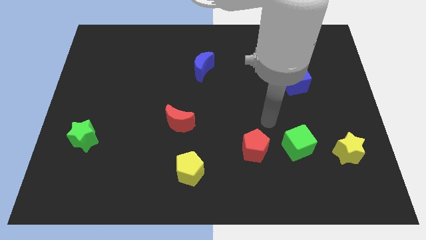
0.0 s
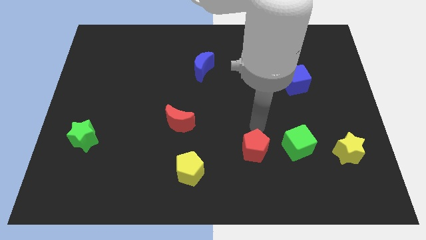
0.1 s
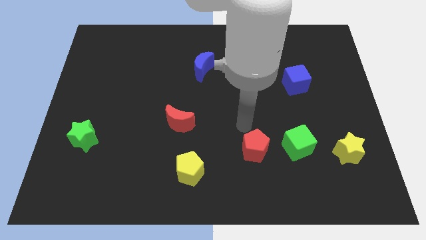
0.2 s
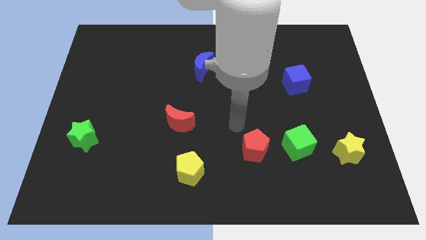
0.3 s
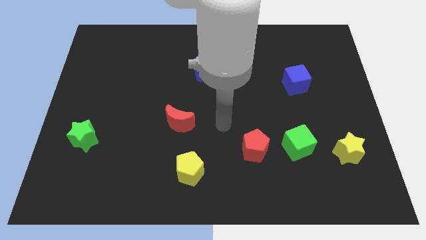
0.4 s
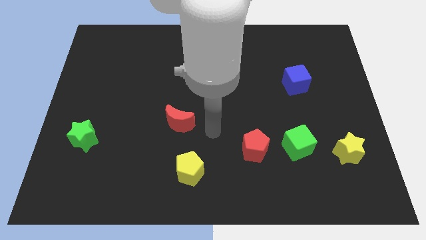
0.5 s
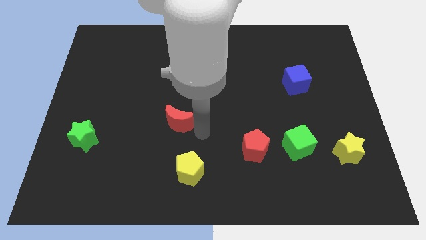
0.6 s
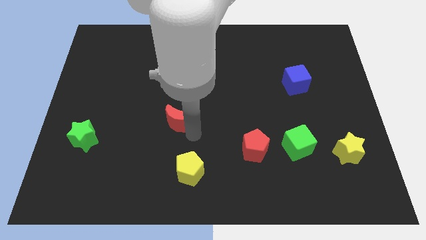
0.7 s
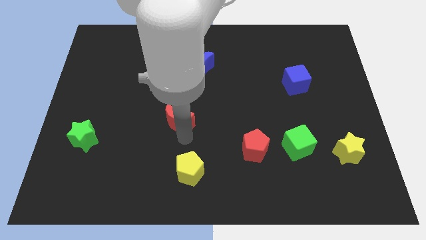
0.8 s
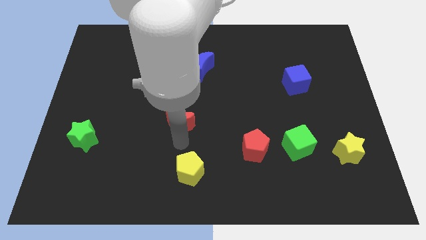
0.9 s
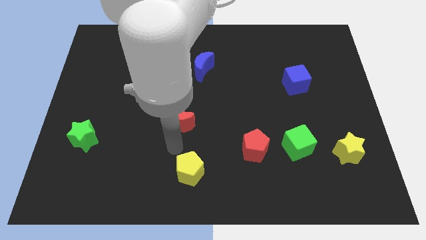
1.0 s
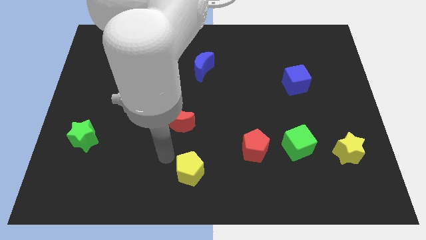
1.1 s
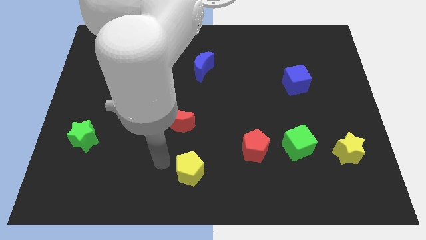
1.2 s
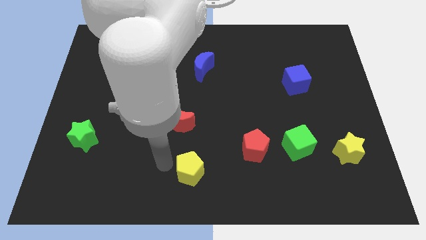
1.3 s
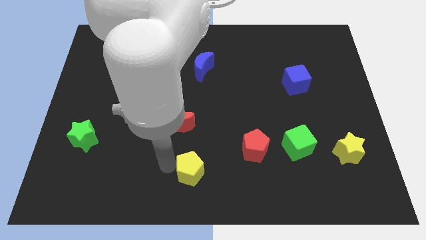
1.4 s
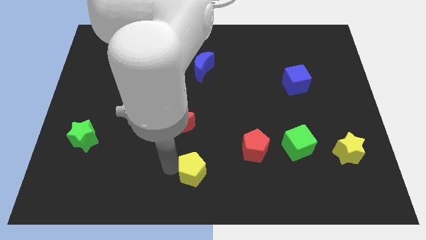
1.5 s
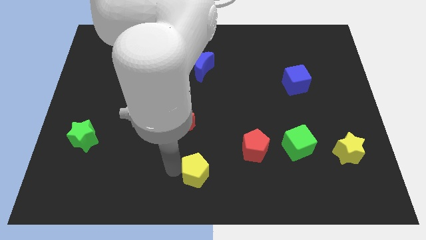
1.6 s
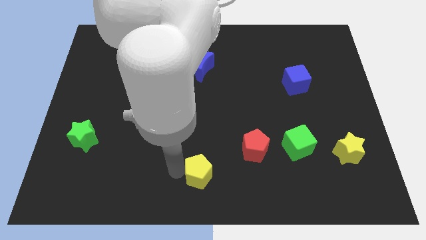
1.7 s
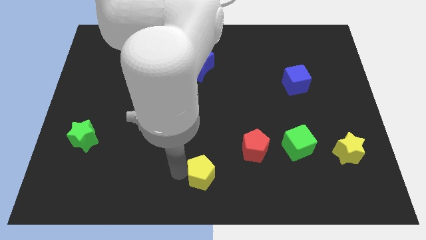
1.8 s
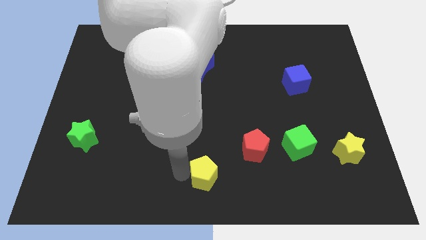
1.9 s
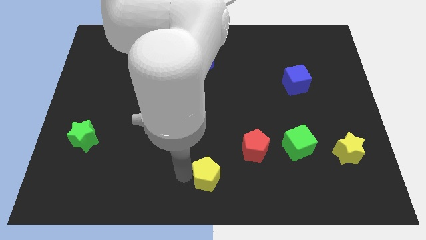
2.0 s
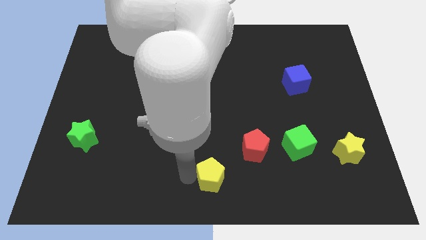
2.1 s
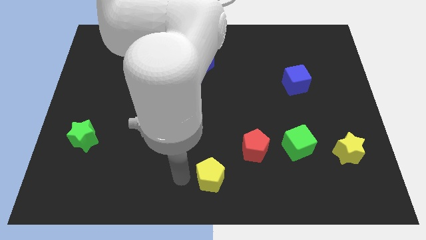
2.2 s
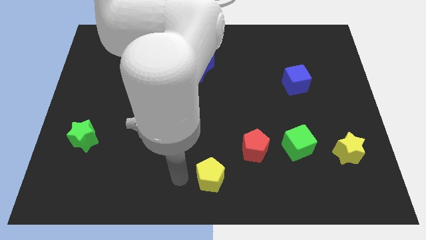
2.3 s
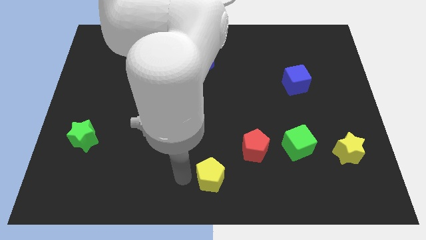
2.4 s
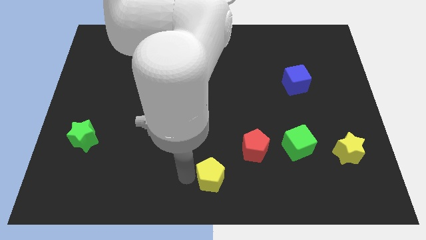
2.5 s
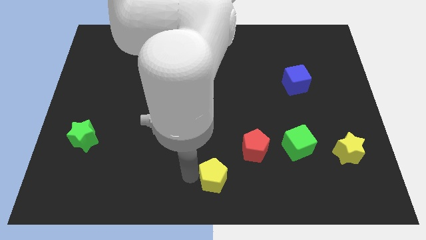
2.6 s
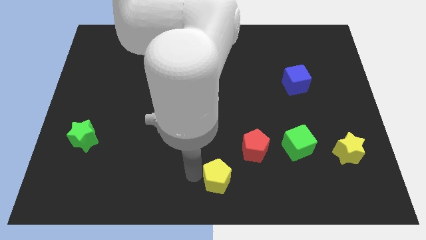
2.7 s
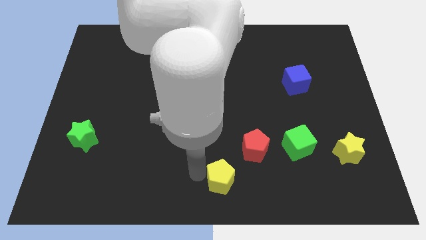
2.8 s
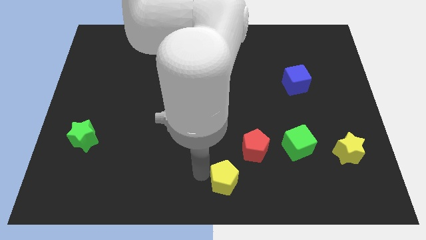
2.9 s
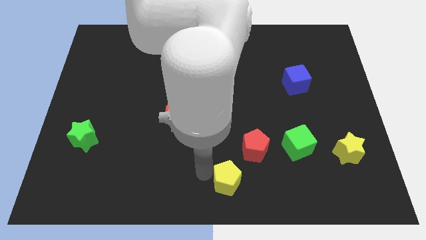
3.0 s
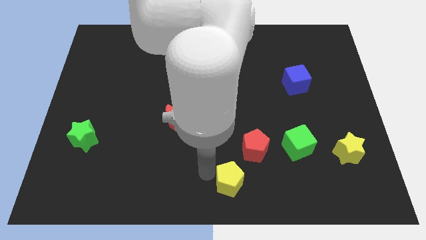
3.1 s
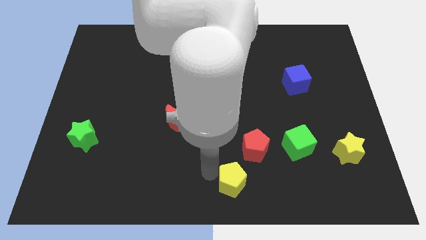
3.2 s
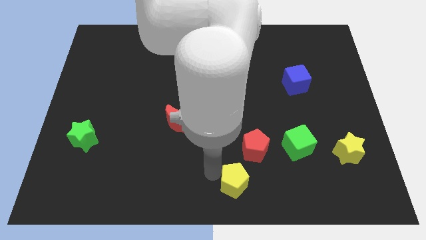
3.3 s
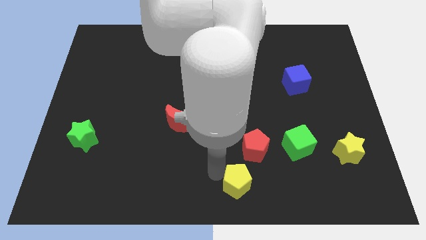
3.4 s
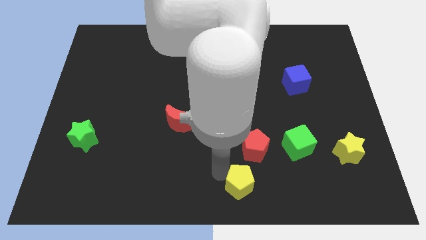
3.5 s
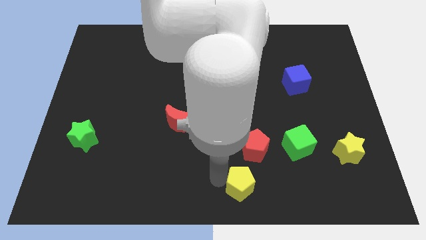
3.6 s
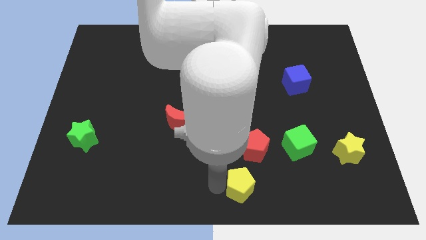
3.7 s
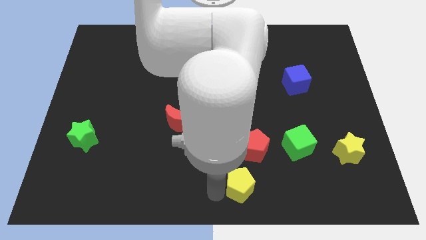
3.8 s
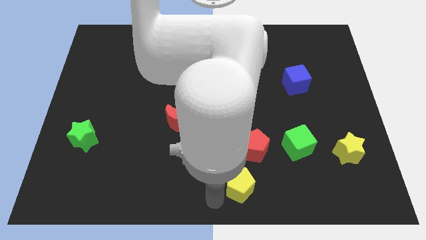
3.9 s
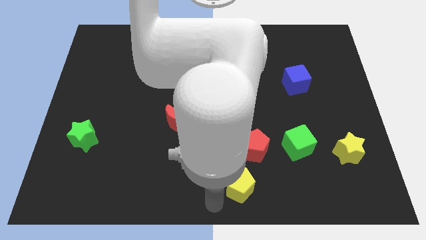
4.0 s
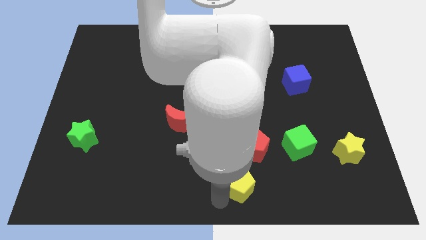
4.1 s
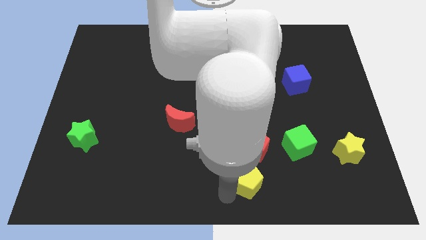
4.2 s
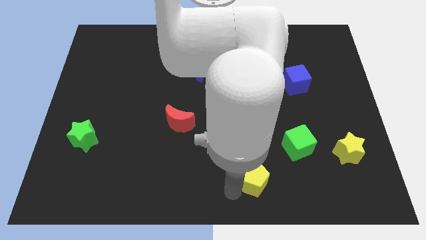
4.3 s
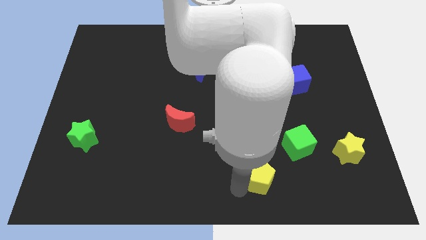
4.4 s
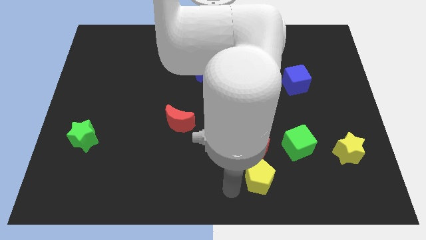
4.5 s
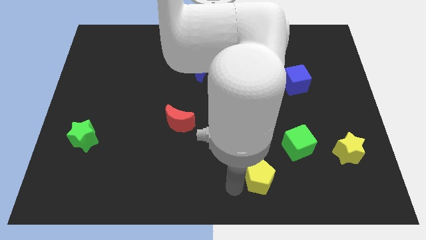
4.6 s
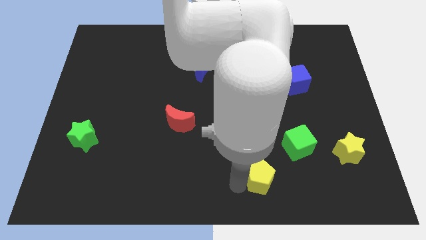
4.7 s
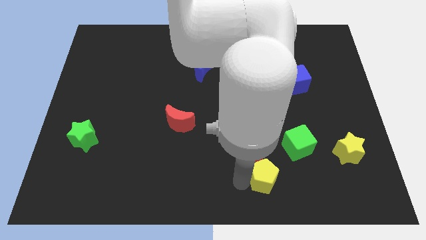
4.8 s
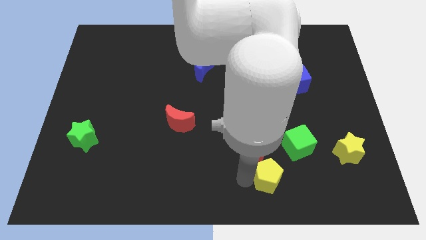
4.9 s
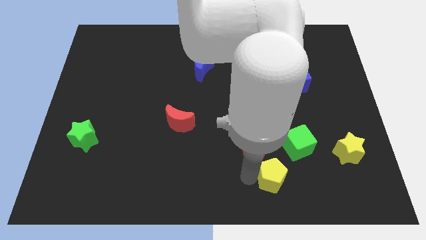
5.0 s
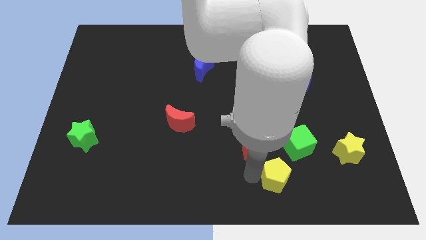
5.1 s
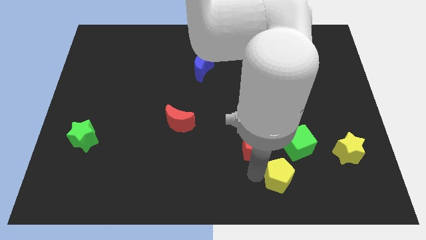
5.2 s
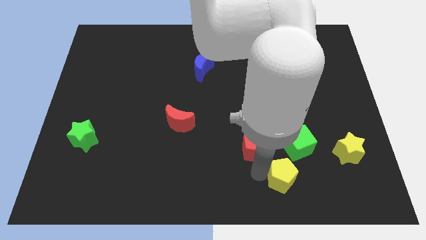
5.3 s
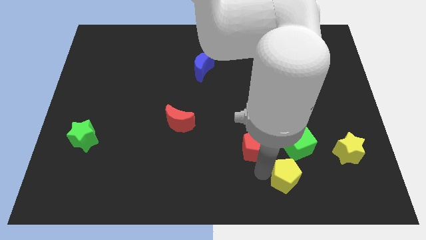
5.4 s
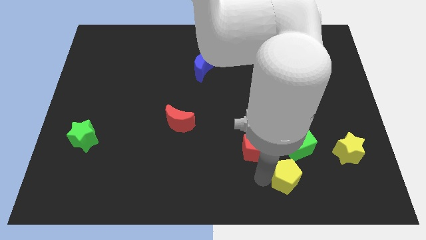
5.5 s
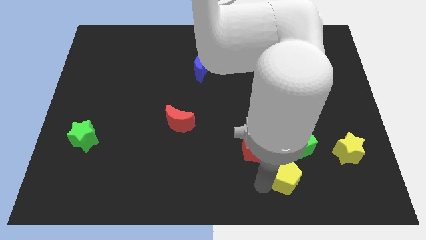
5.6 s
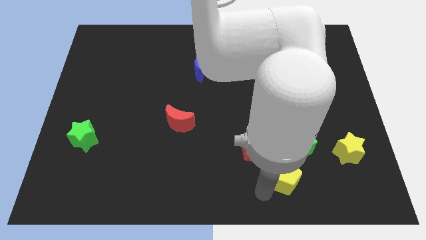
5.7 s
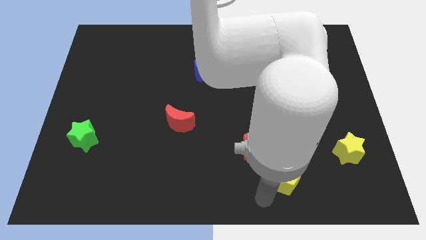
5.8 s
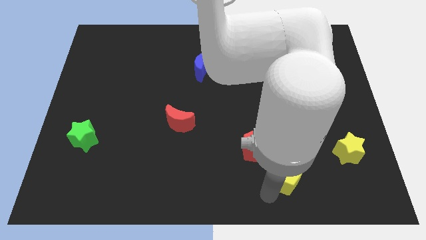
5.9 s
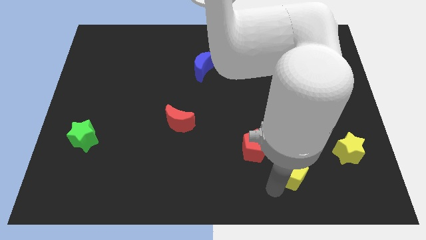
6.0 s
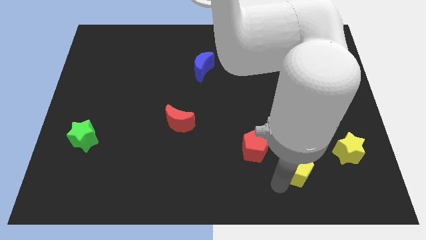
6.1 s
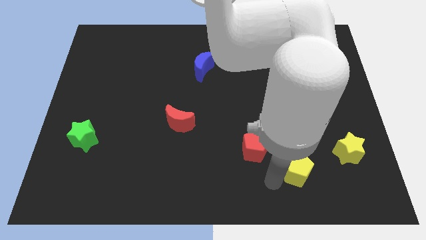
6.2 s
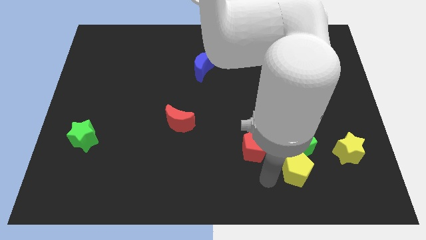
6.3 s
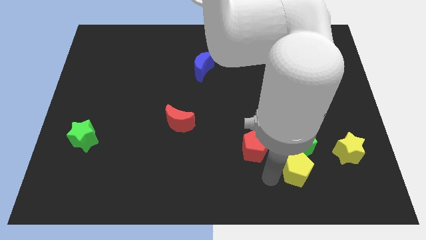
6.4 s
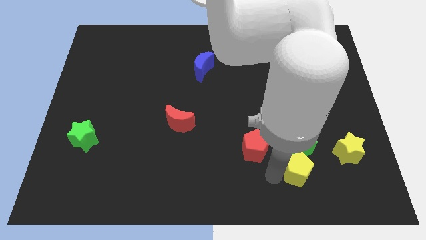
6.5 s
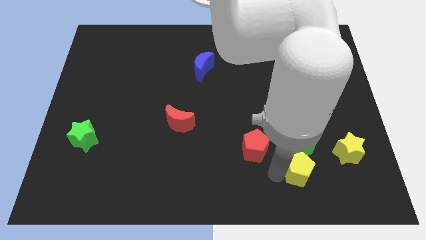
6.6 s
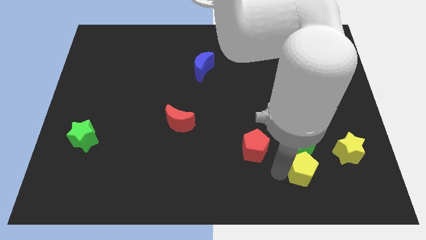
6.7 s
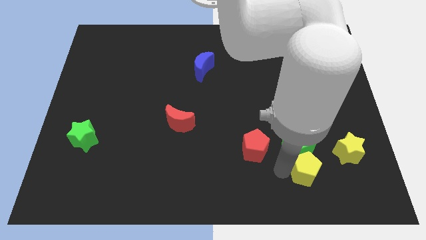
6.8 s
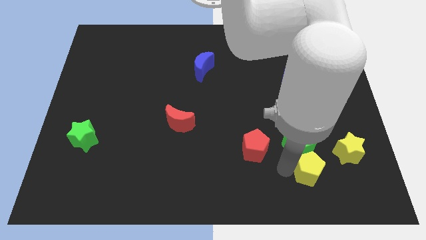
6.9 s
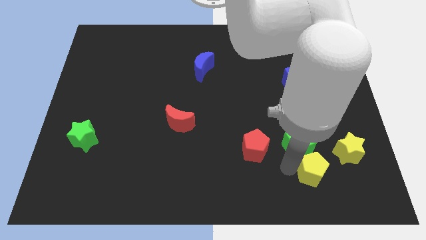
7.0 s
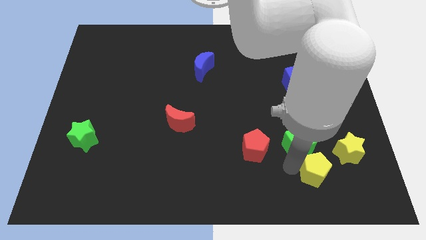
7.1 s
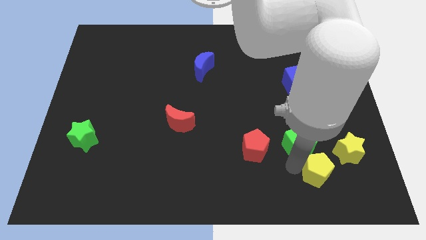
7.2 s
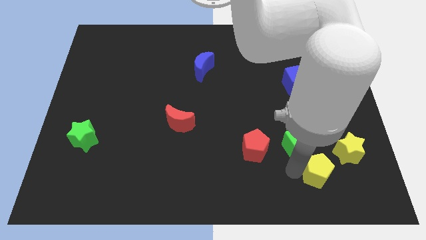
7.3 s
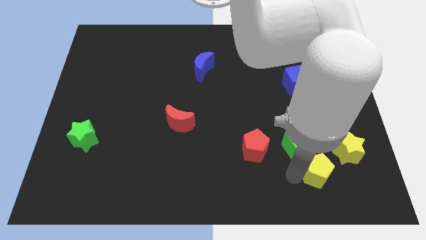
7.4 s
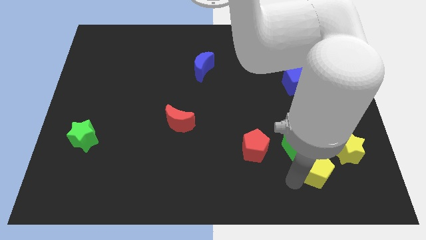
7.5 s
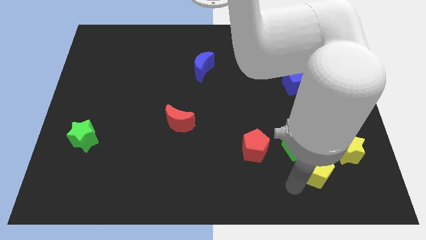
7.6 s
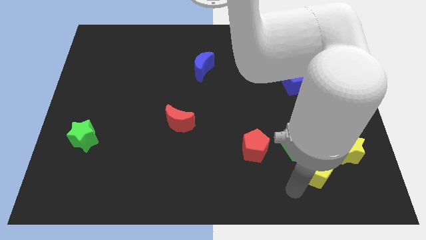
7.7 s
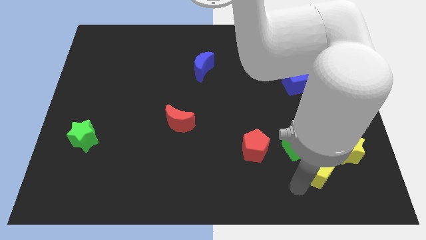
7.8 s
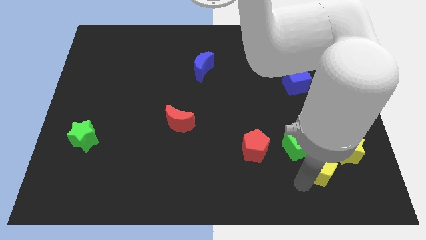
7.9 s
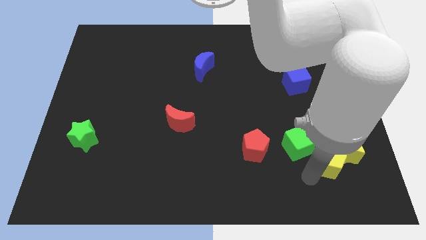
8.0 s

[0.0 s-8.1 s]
push the yellow pentagon next to the yellow star
